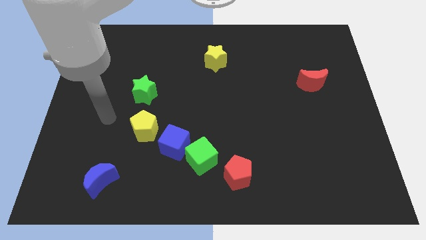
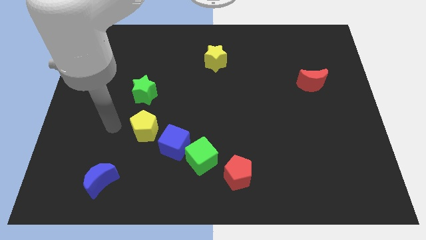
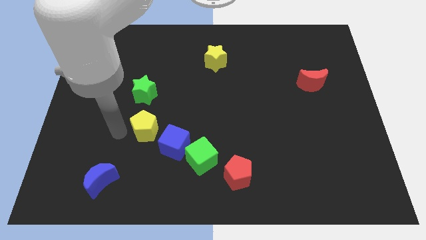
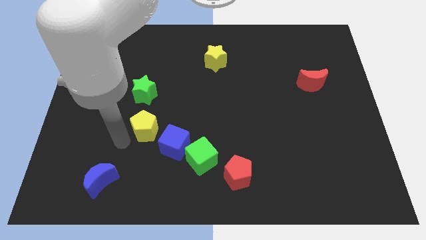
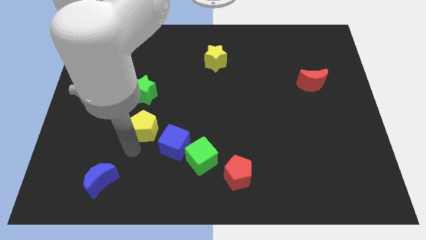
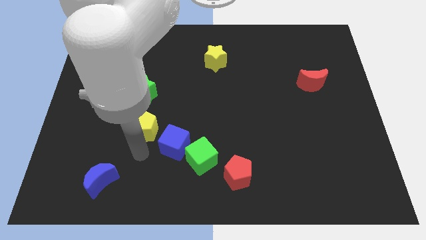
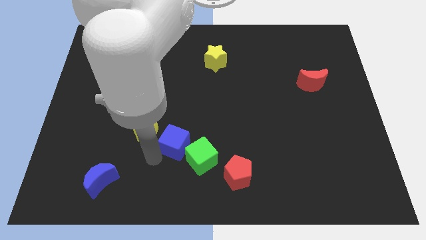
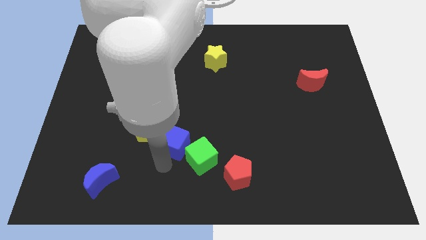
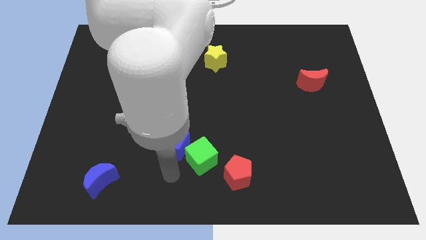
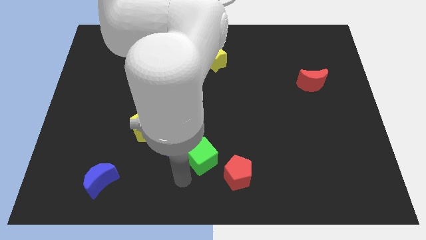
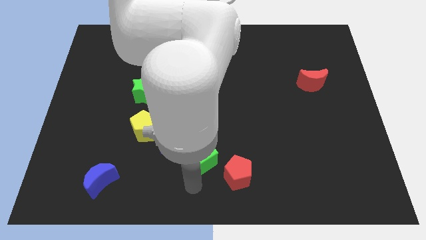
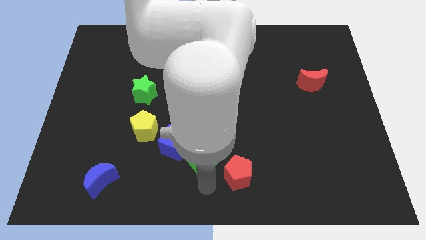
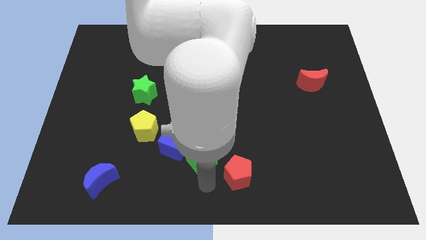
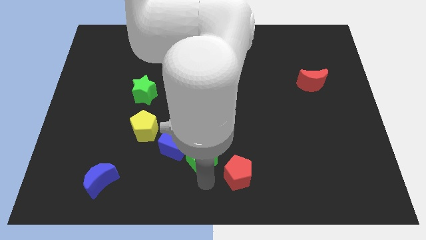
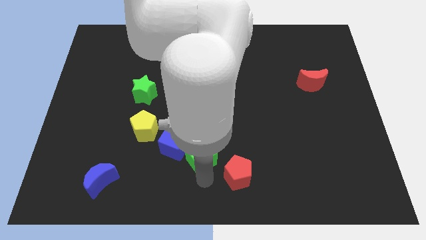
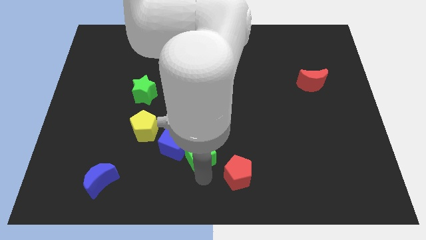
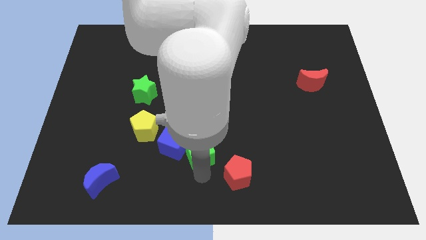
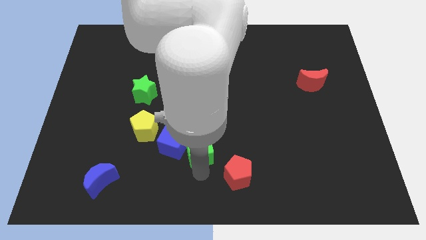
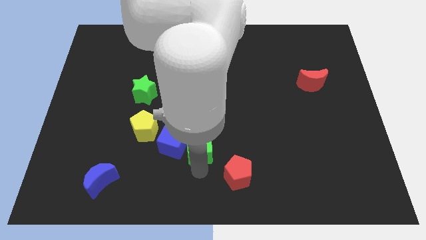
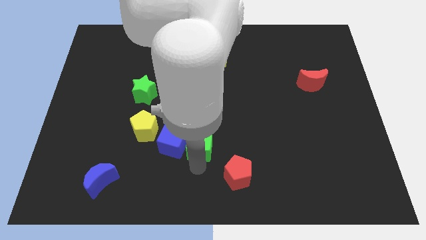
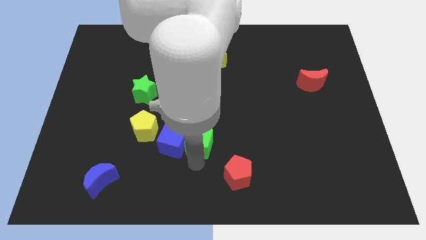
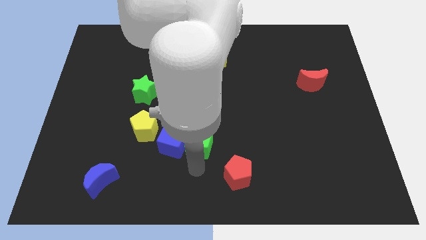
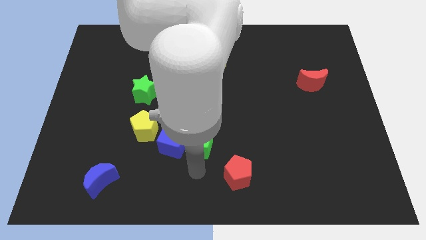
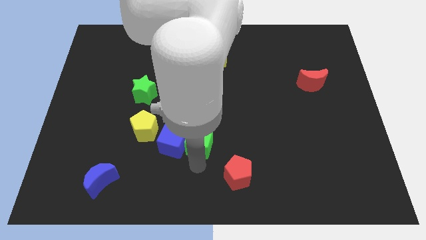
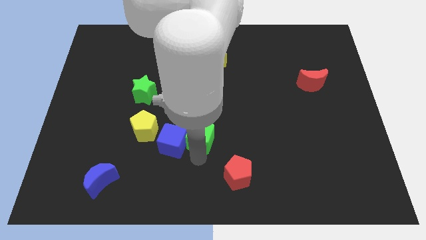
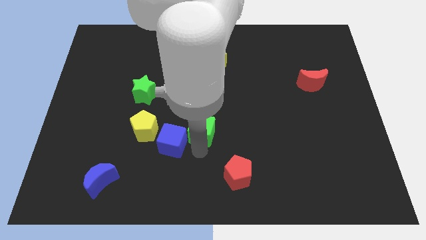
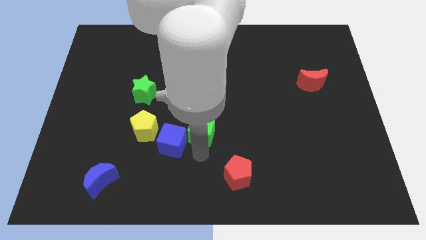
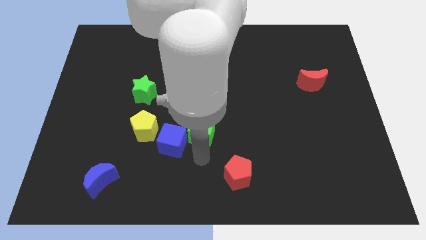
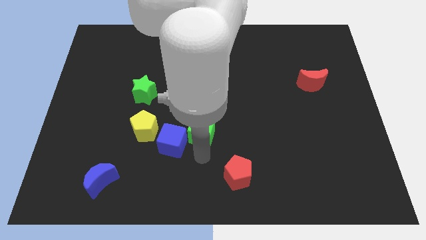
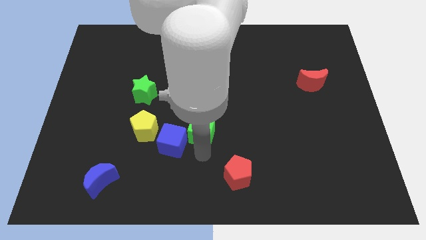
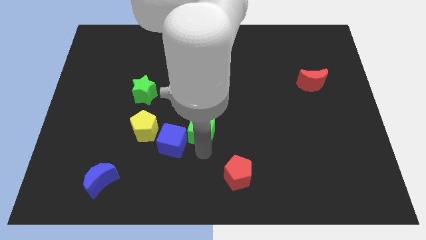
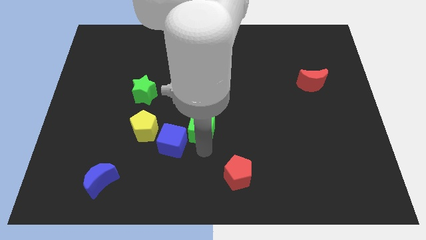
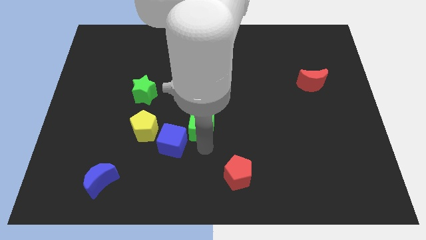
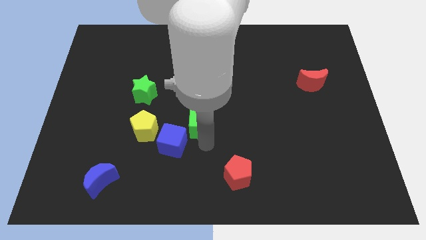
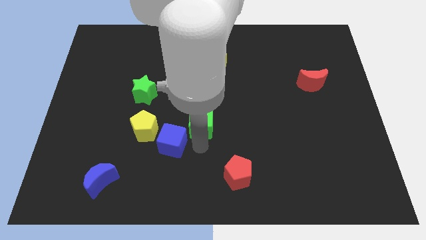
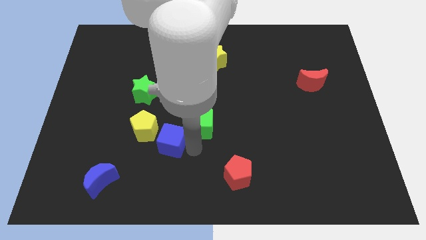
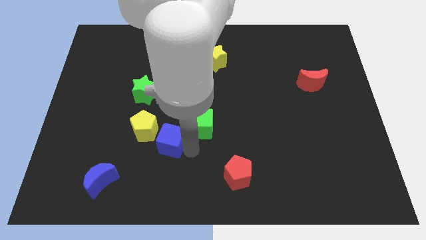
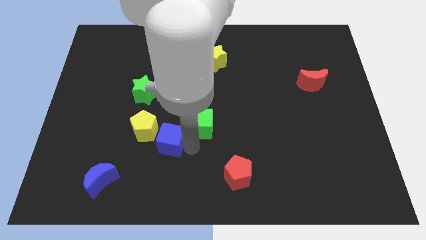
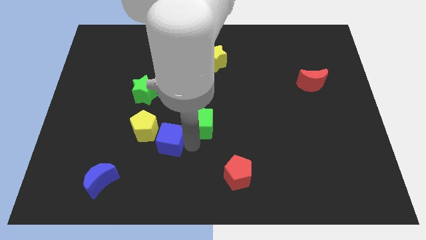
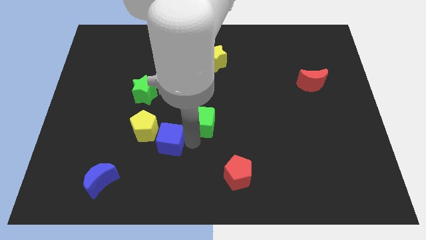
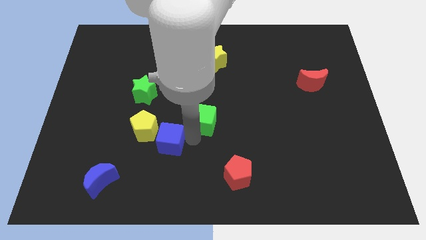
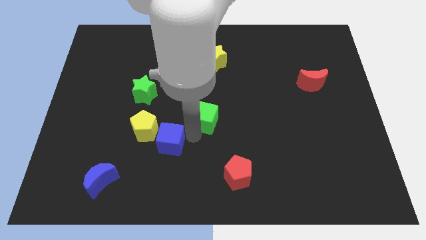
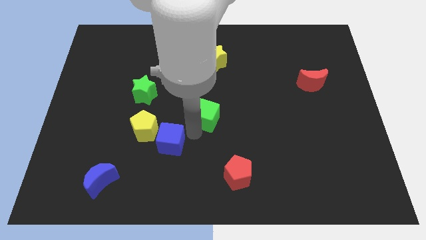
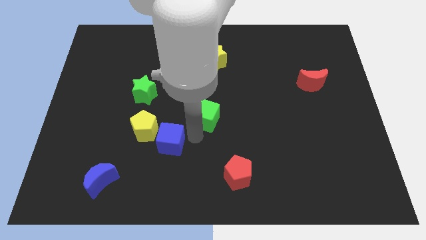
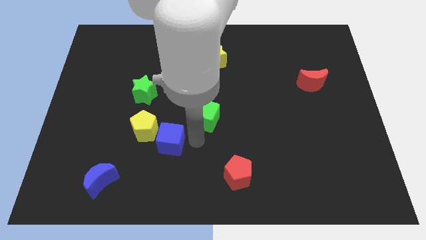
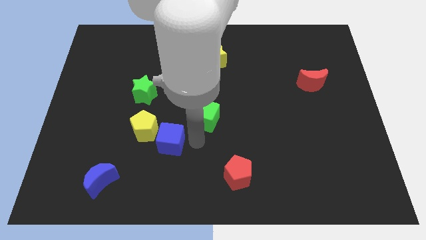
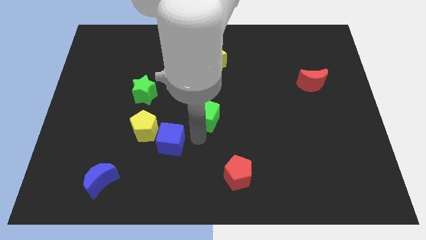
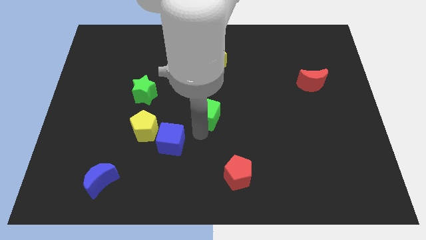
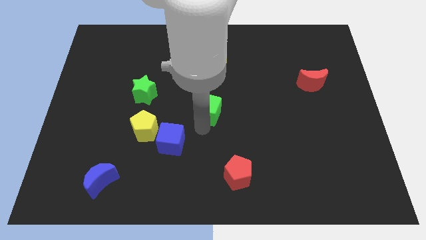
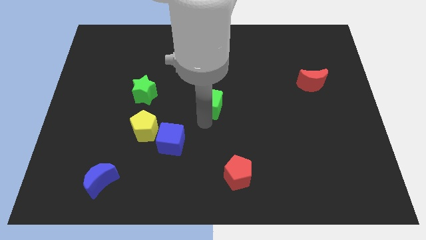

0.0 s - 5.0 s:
push the green cube below the yellow star

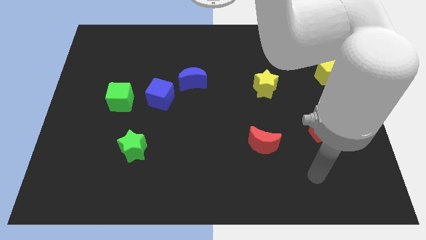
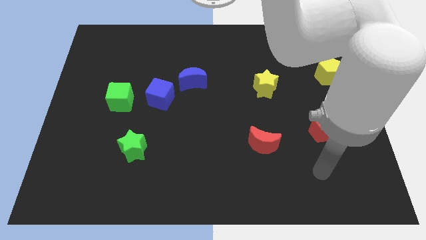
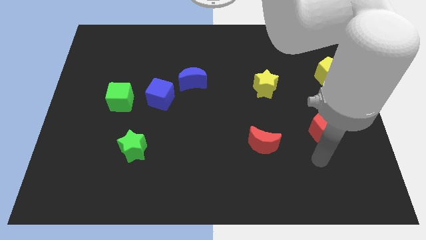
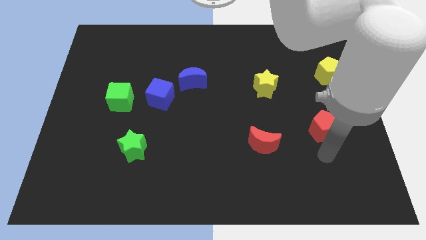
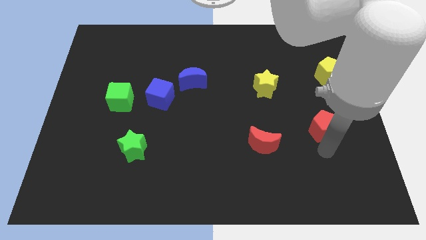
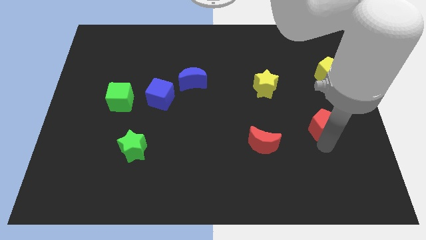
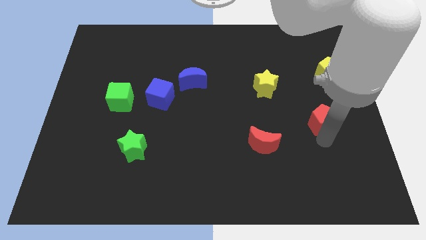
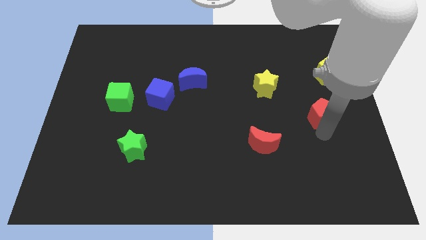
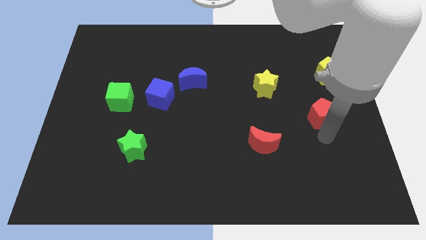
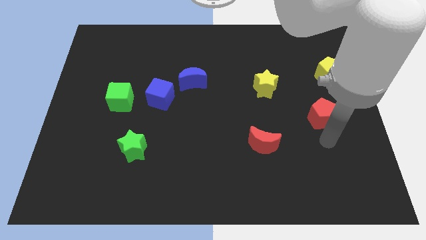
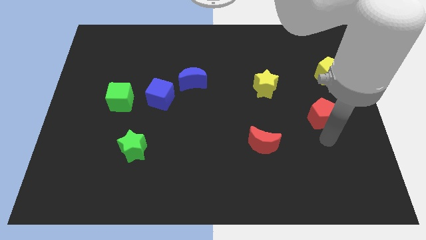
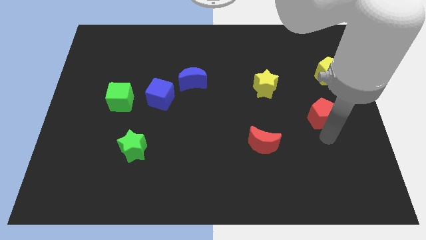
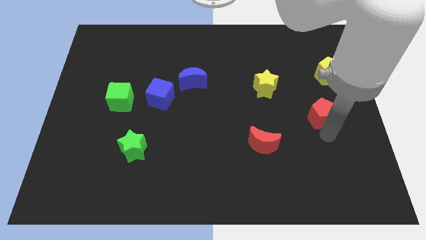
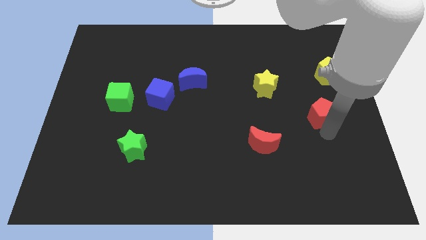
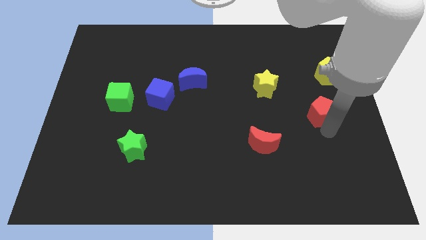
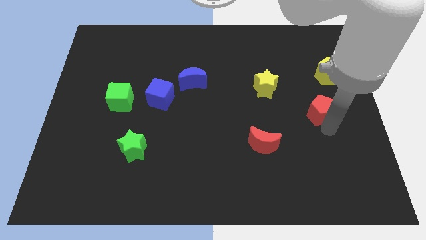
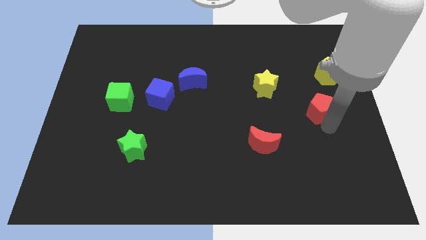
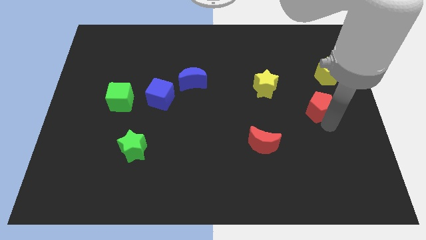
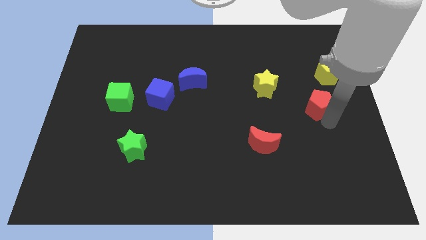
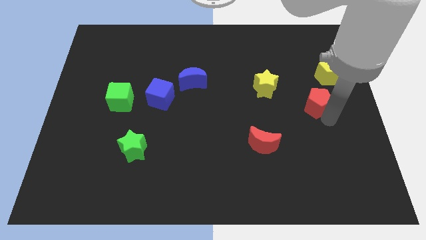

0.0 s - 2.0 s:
push the red pentagon diagonally down and to the left of the yellow pentagon

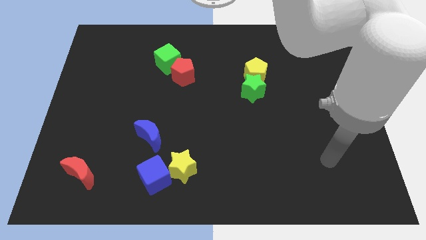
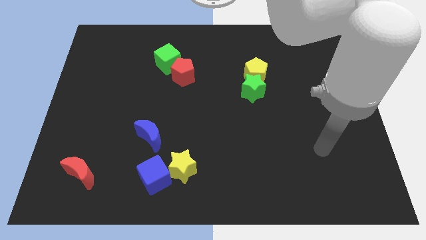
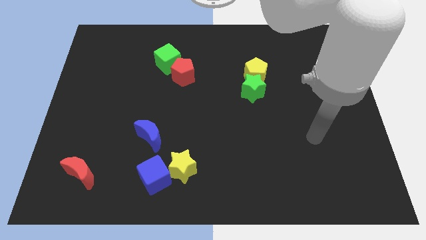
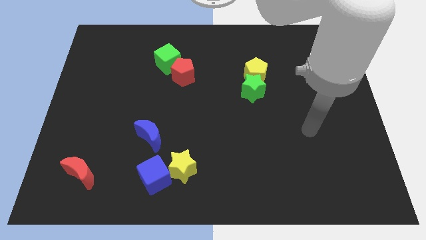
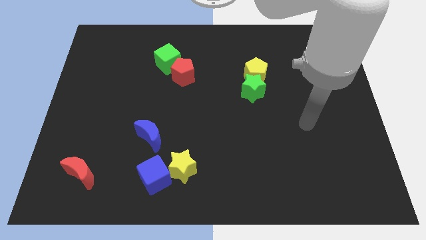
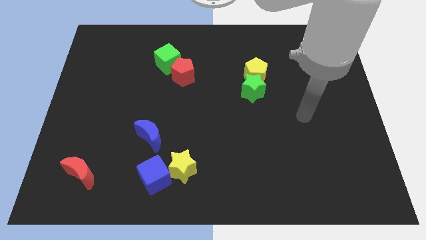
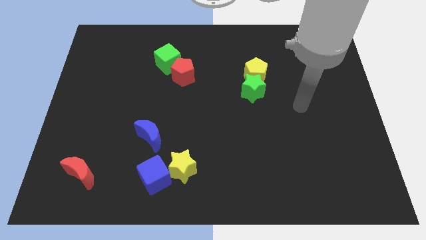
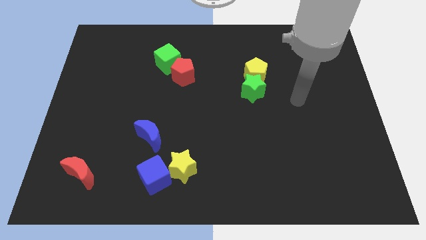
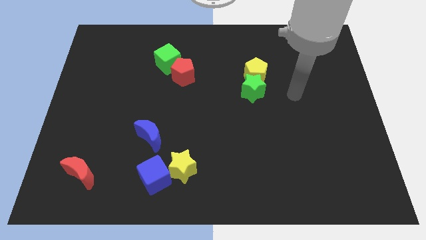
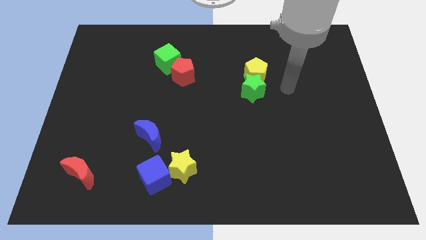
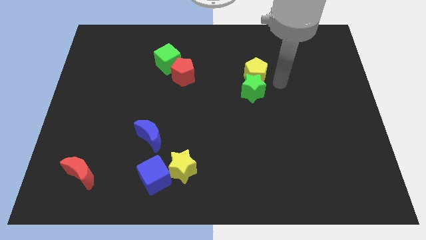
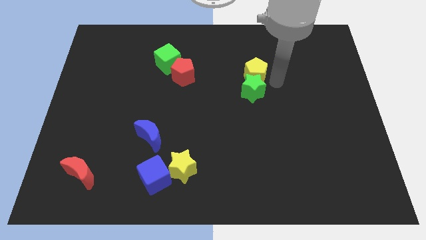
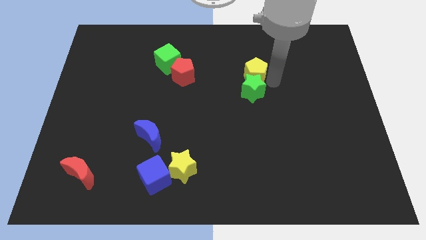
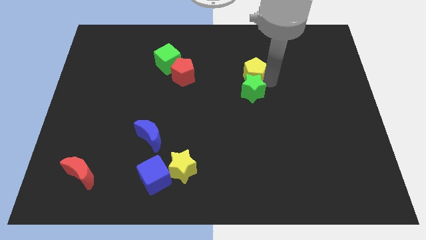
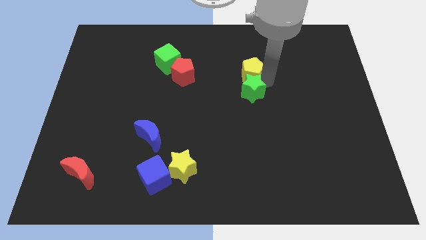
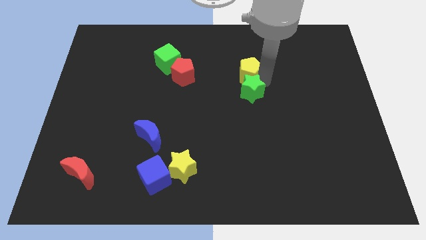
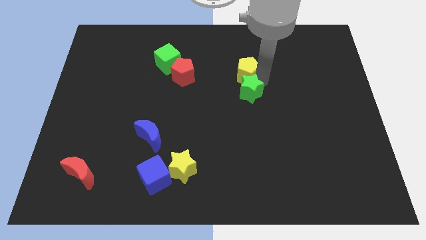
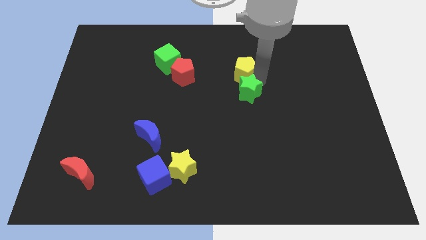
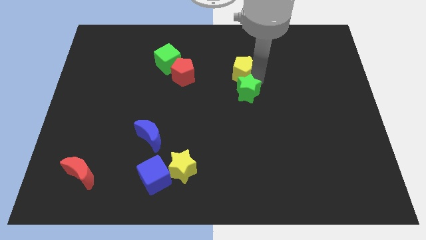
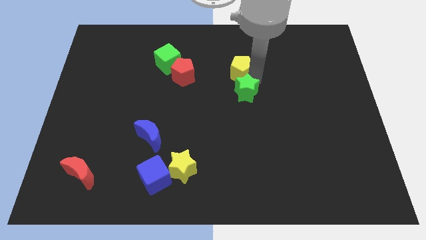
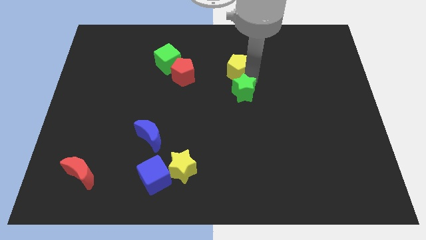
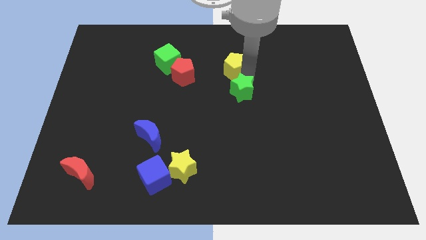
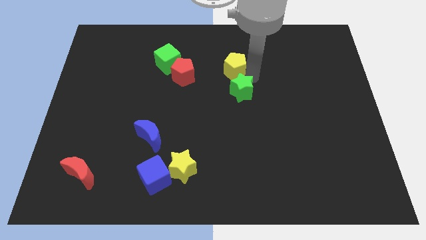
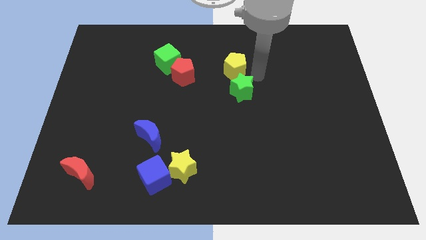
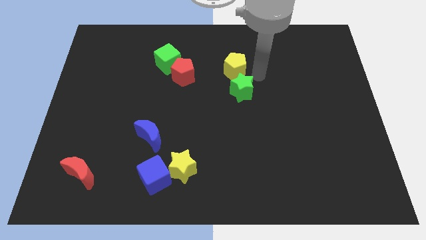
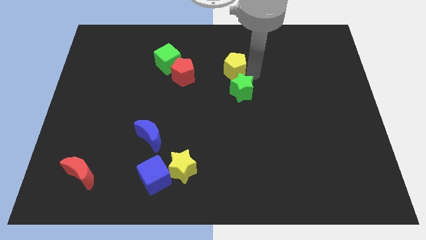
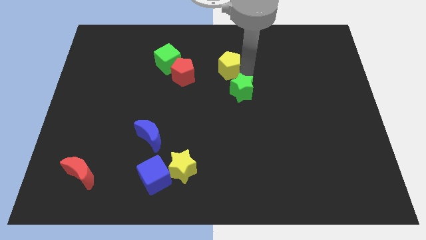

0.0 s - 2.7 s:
push the yellow pentagon to the right of the green cube
